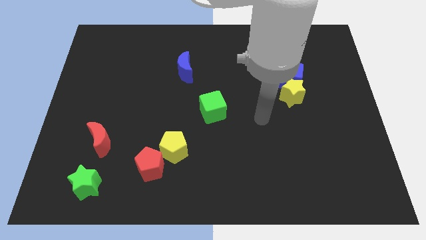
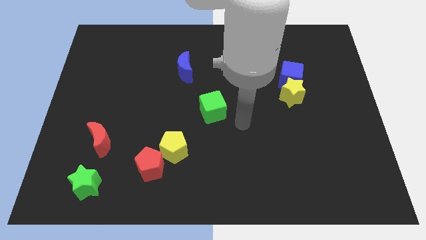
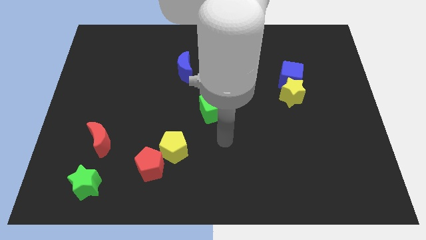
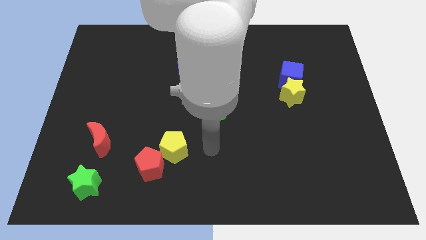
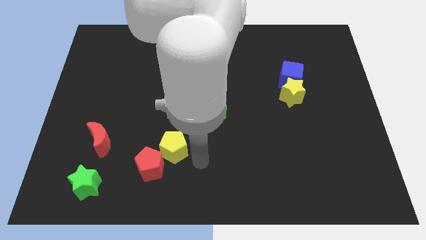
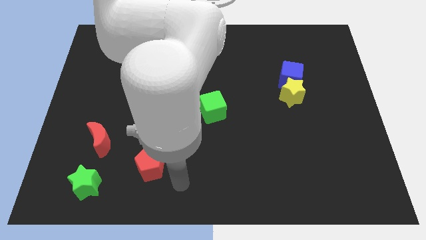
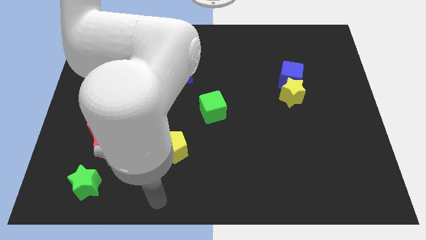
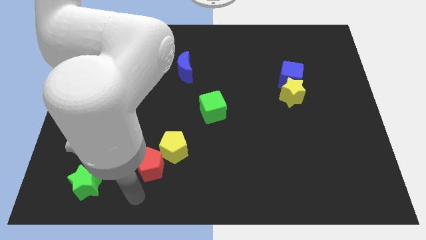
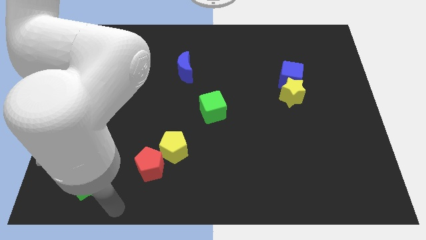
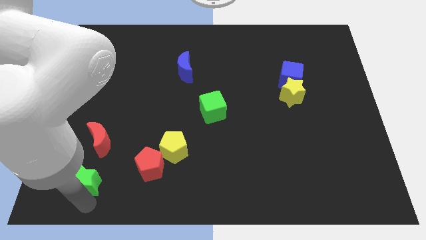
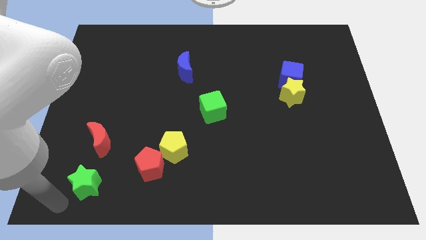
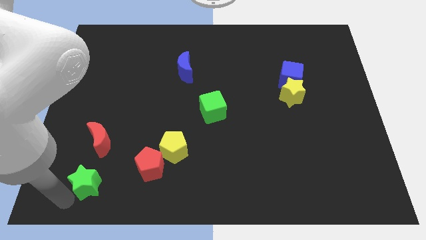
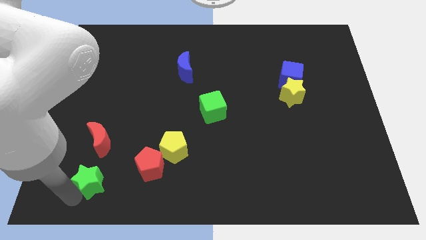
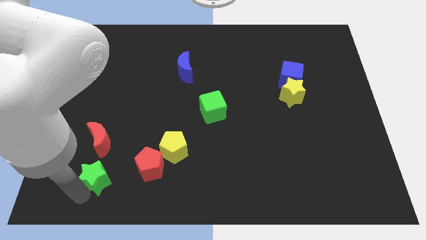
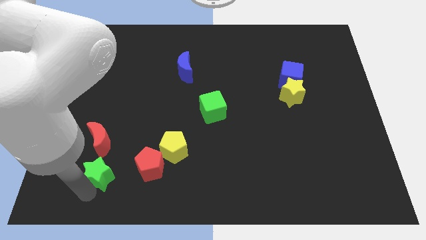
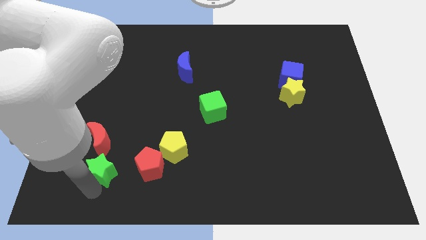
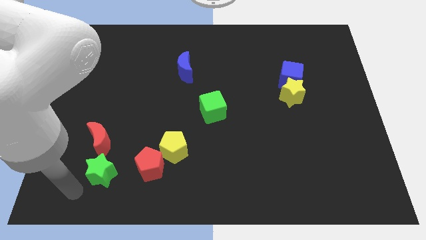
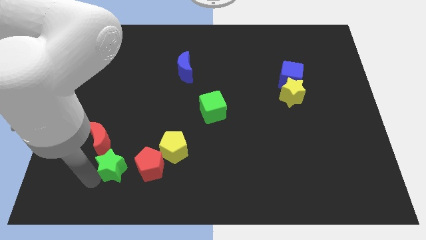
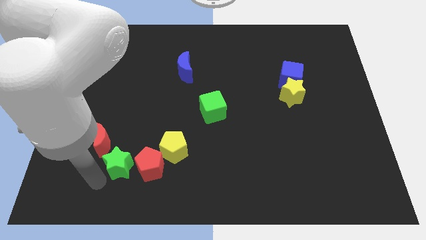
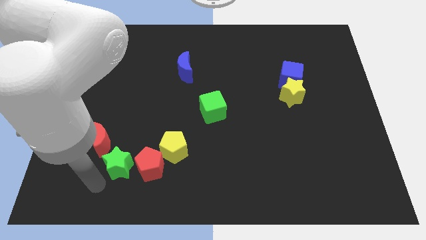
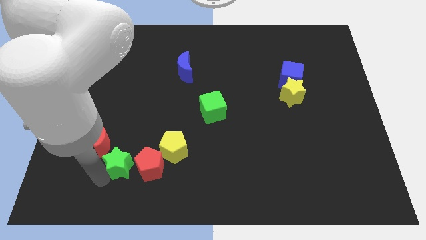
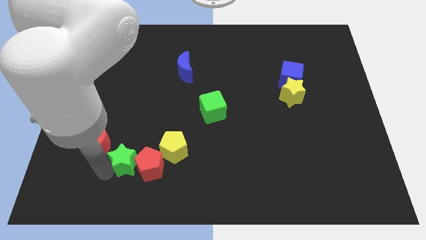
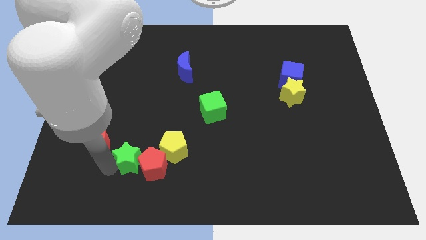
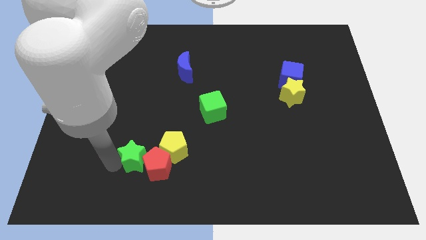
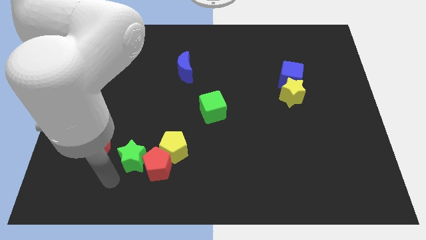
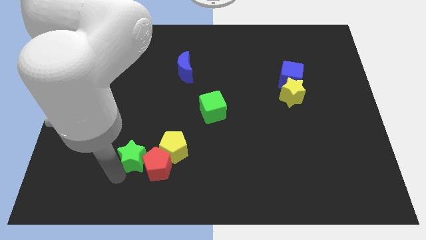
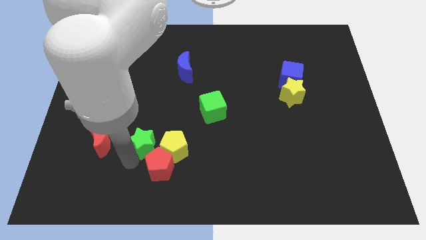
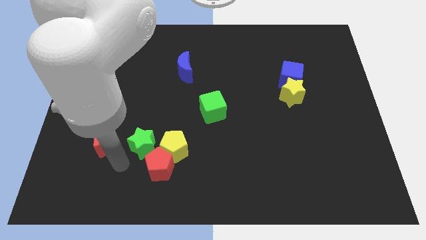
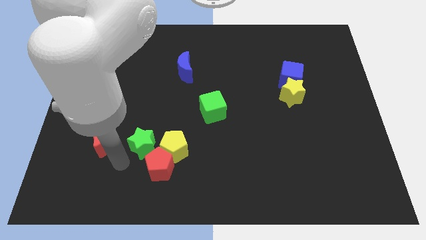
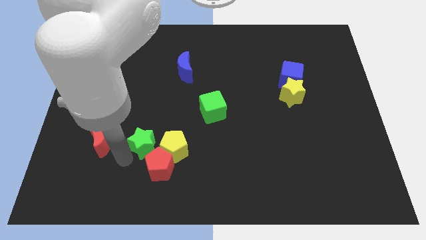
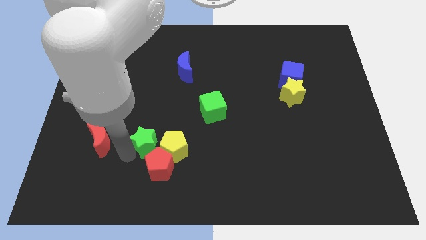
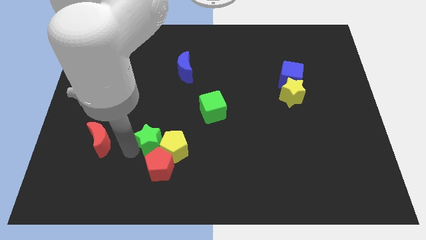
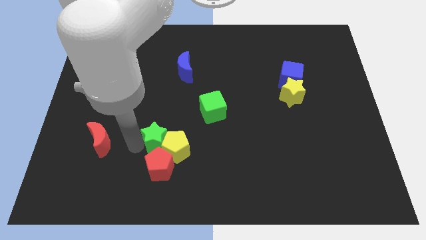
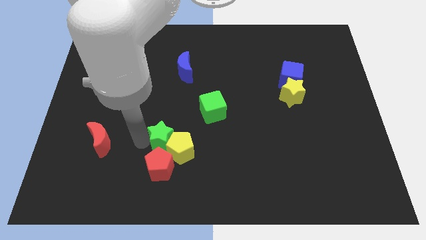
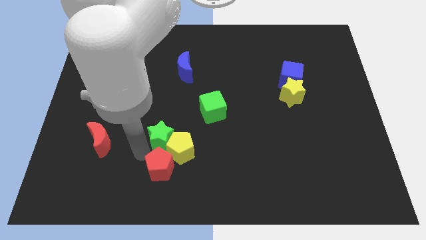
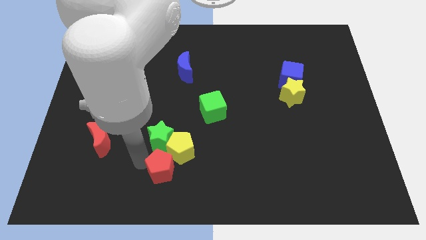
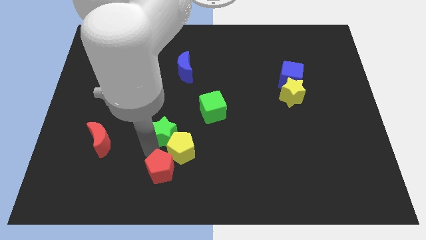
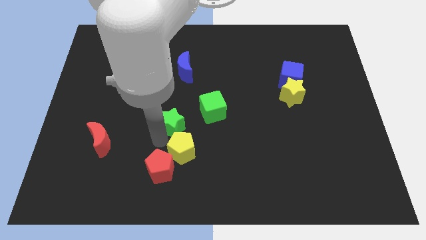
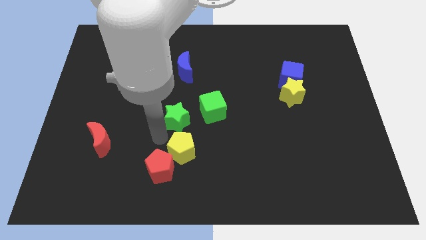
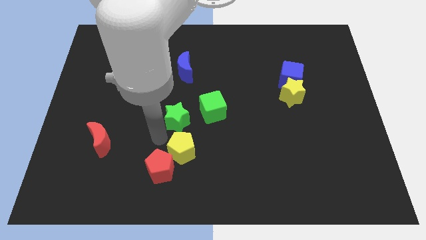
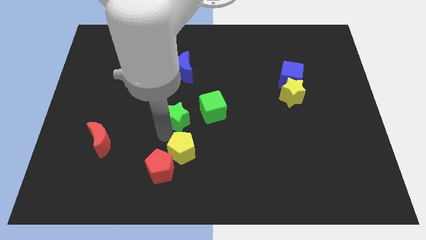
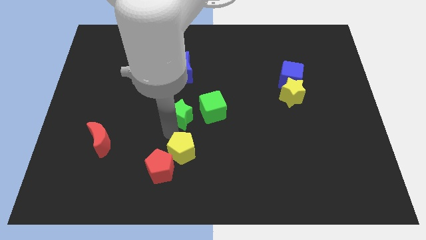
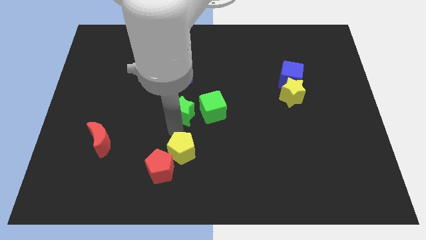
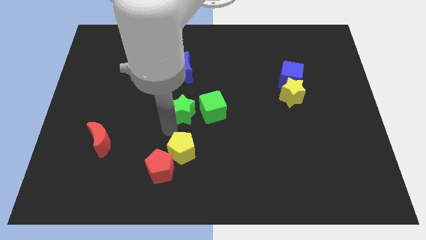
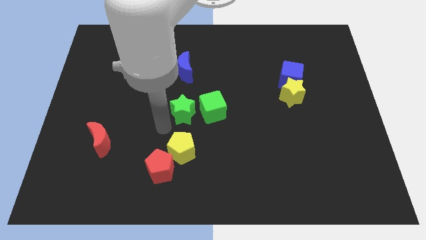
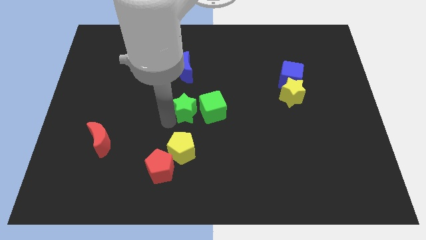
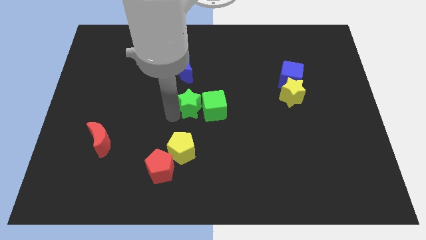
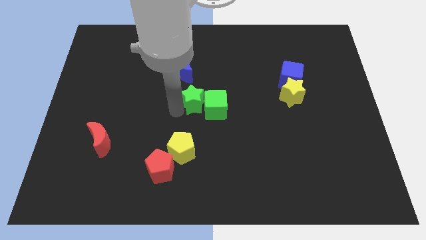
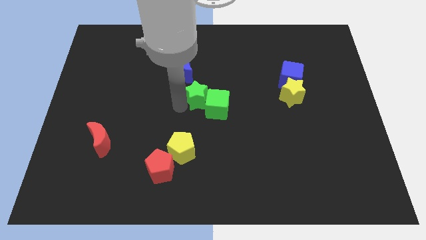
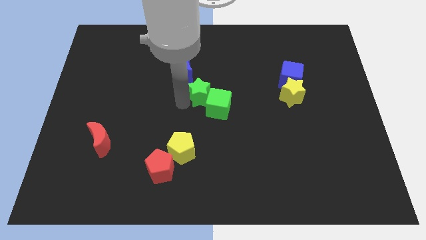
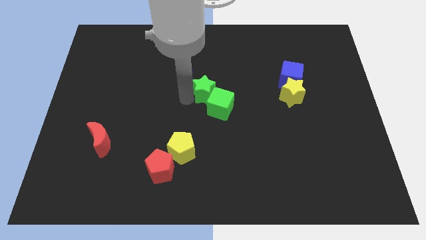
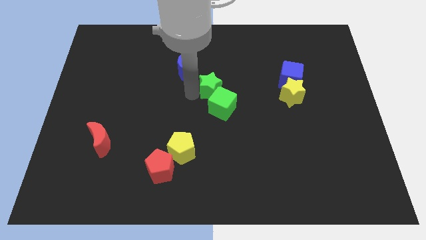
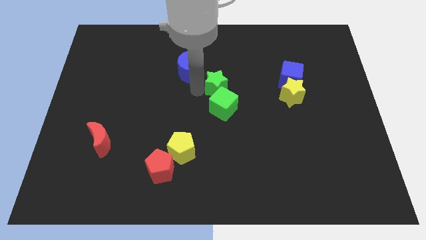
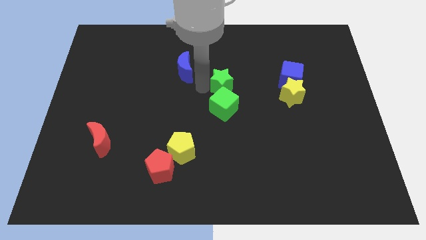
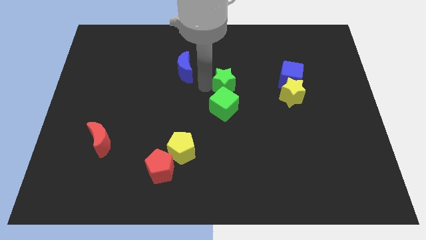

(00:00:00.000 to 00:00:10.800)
push the green star to the top right side of the green cube

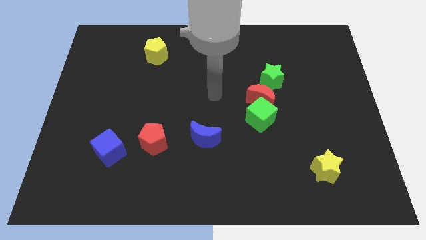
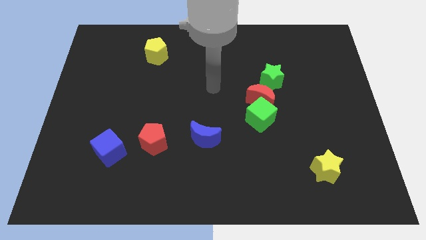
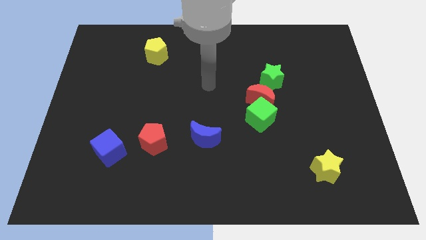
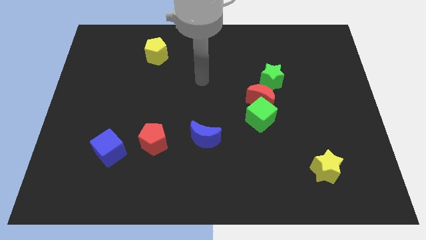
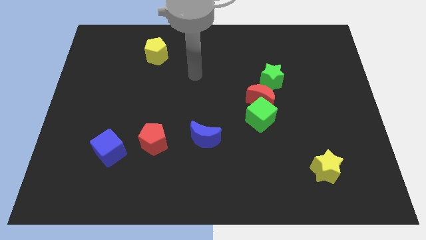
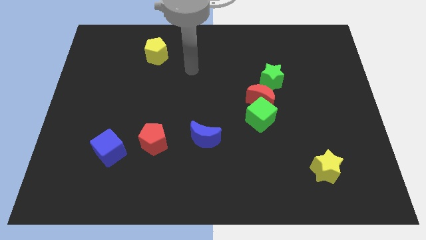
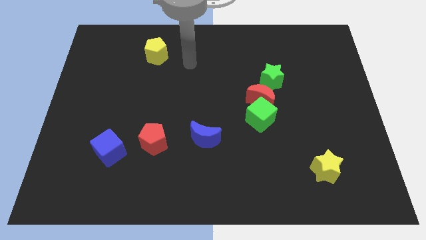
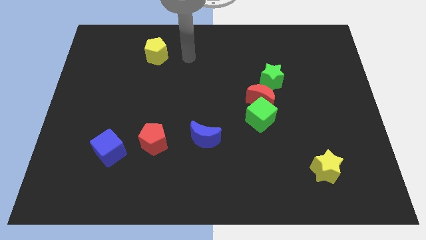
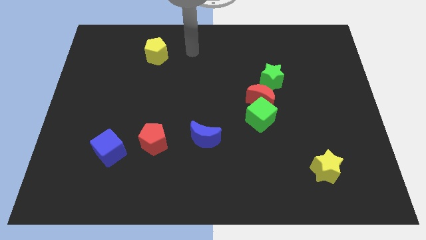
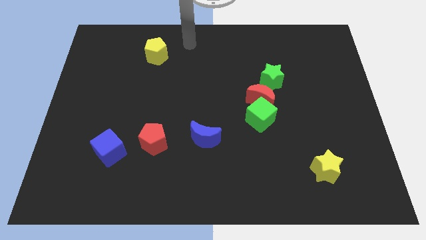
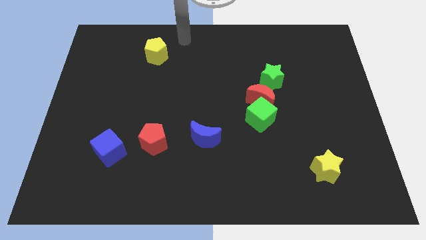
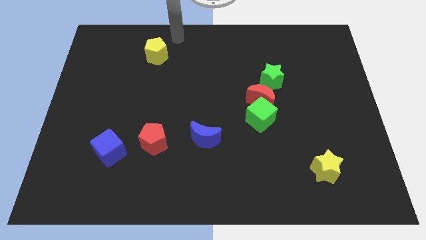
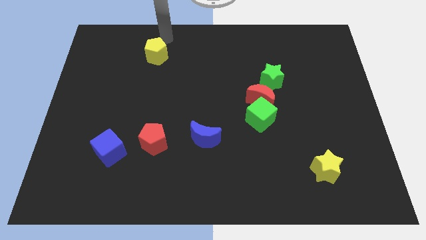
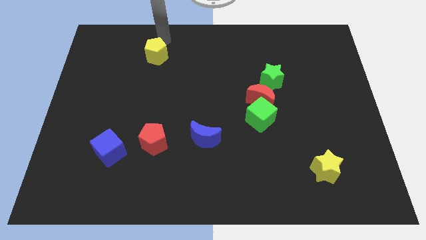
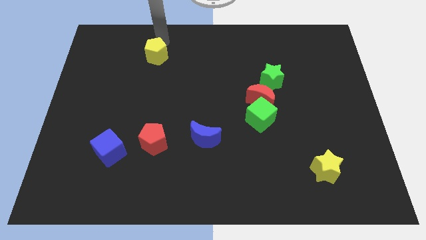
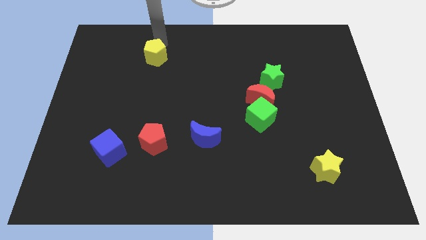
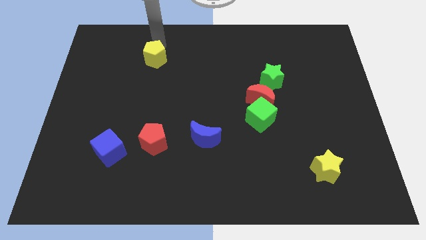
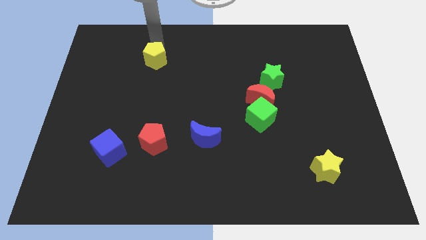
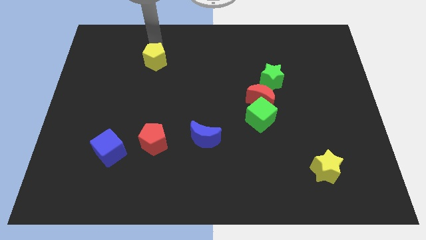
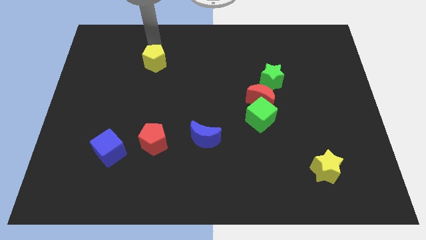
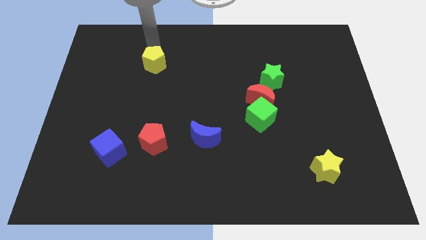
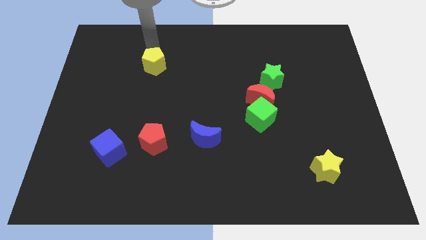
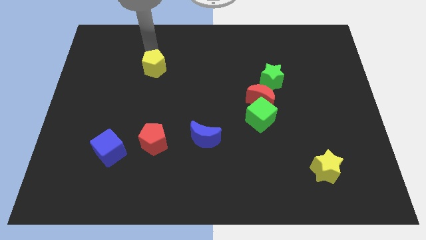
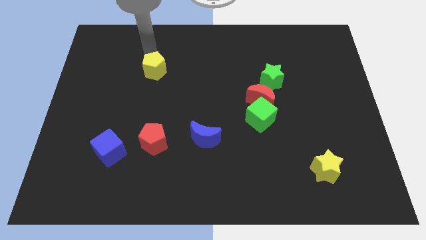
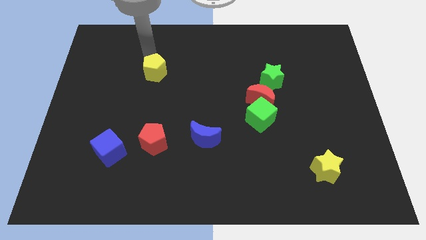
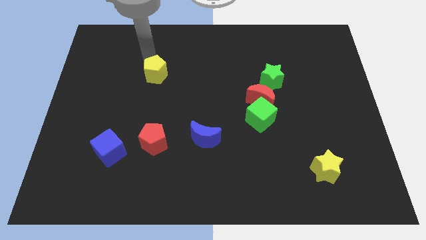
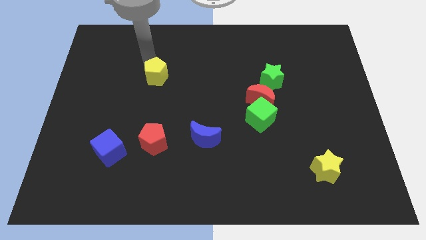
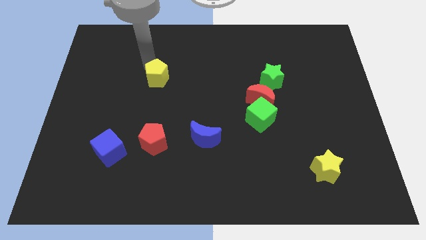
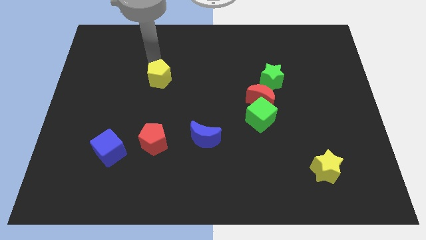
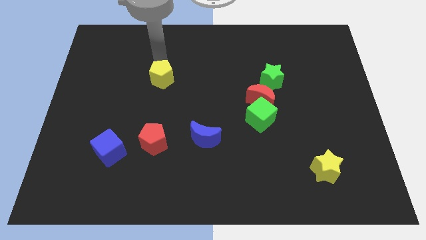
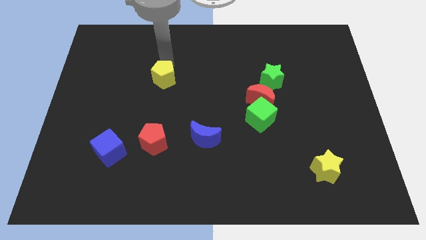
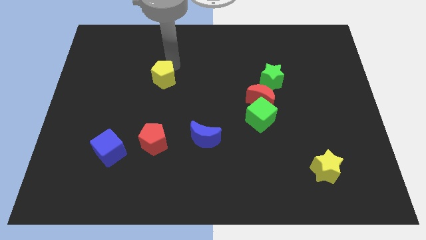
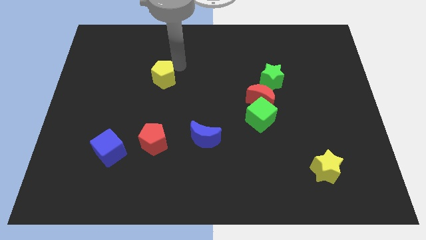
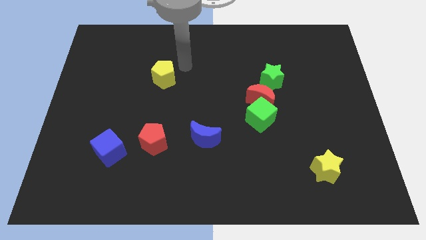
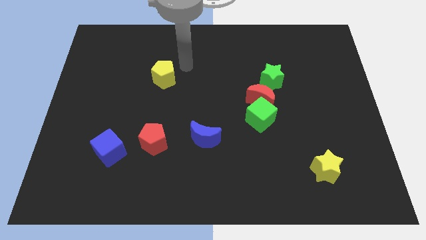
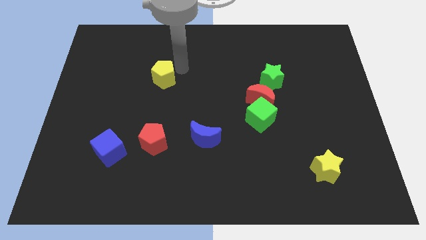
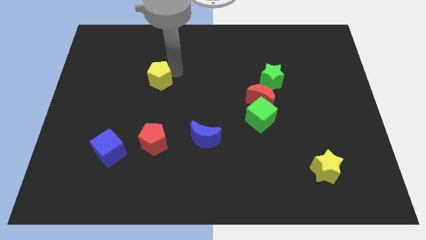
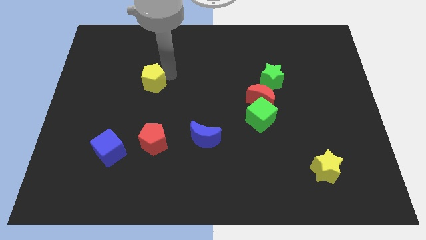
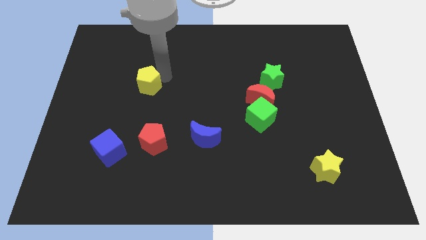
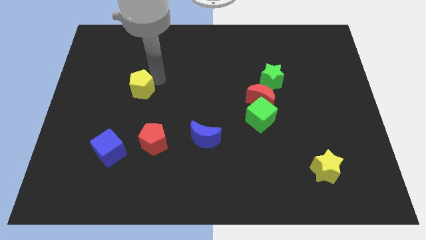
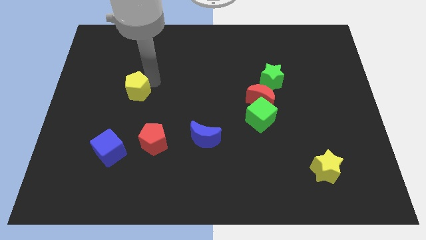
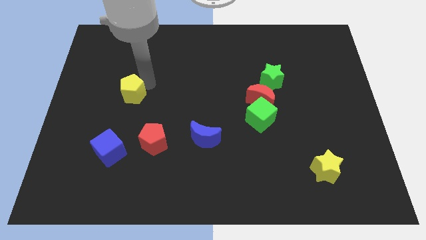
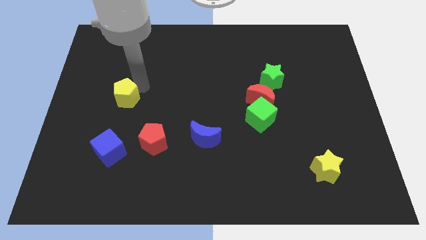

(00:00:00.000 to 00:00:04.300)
slide the yellow pentagon to the top of the blue cube
